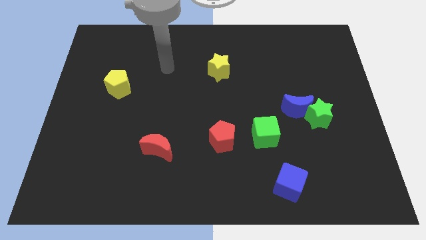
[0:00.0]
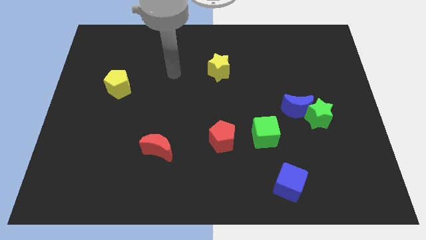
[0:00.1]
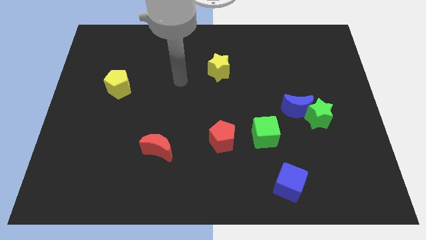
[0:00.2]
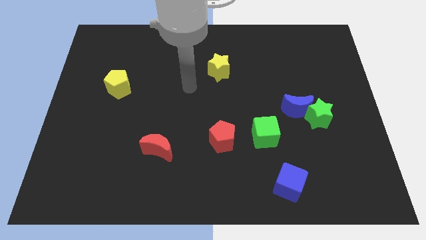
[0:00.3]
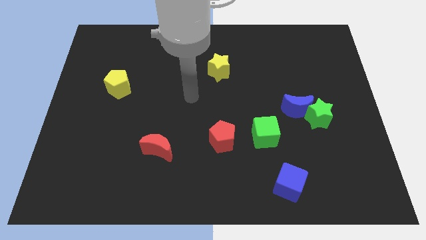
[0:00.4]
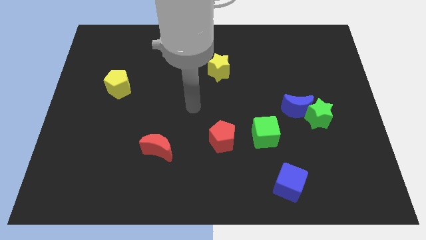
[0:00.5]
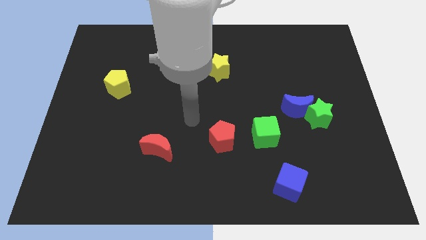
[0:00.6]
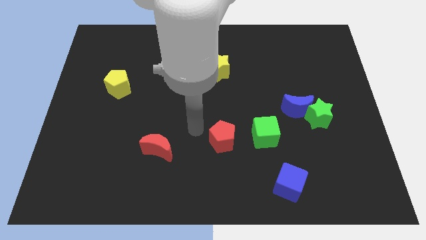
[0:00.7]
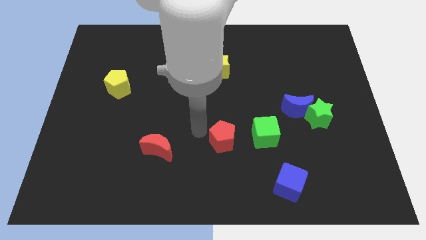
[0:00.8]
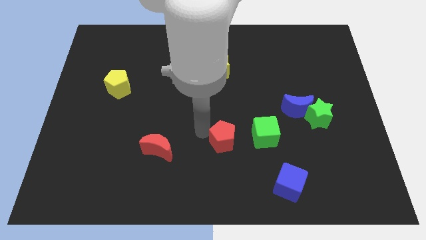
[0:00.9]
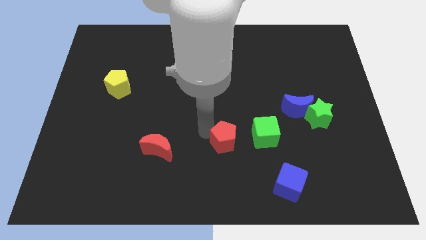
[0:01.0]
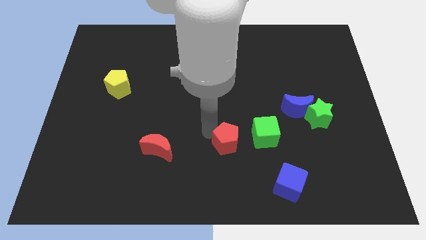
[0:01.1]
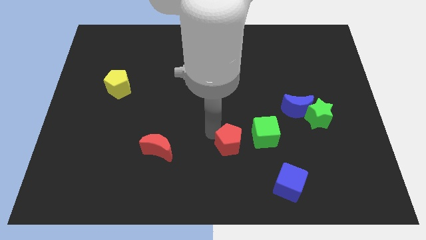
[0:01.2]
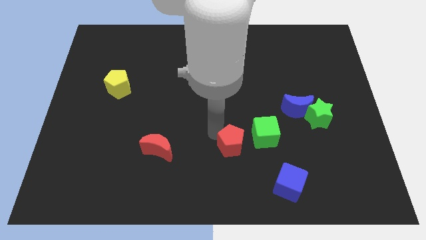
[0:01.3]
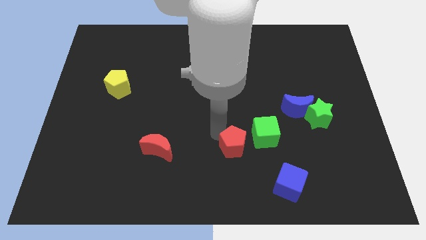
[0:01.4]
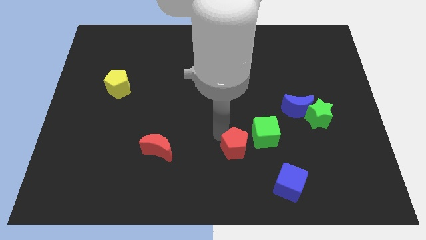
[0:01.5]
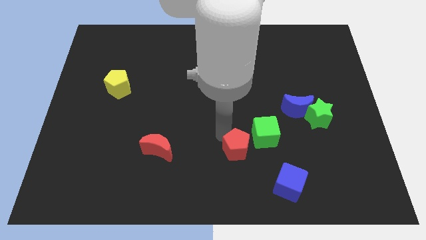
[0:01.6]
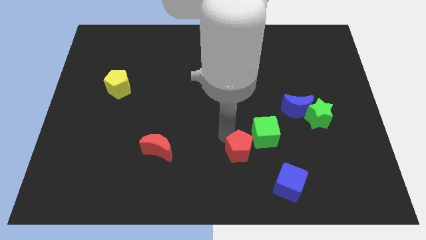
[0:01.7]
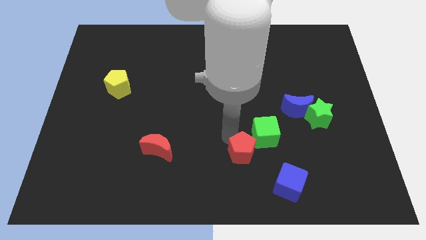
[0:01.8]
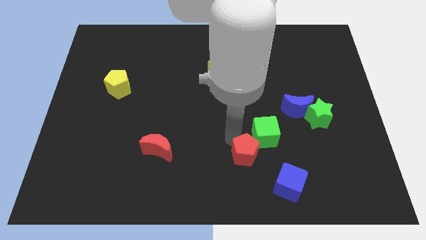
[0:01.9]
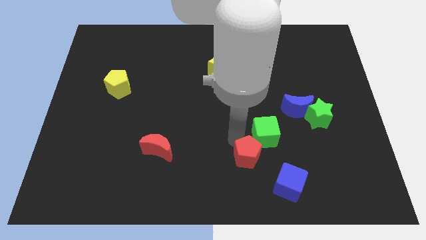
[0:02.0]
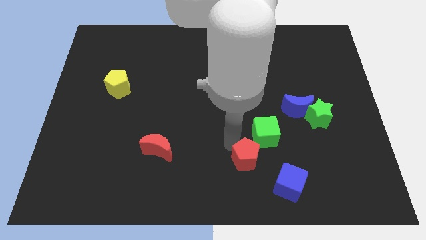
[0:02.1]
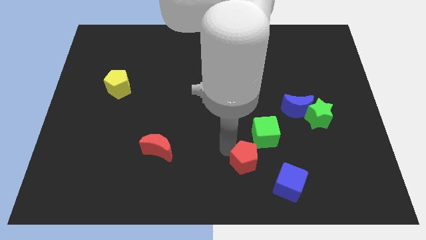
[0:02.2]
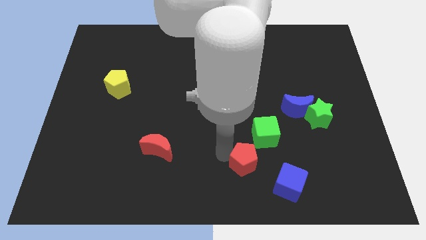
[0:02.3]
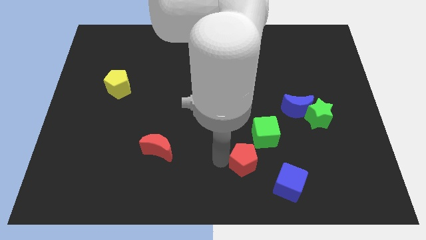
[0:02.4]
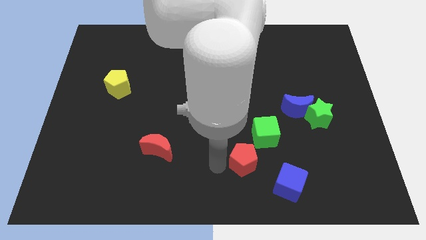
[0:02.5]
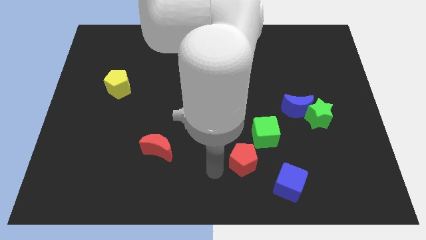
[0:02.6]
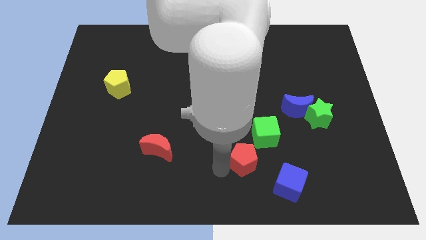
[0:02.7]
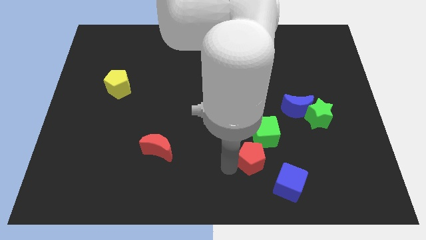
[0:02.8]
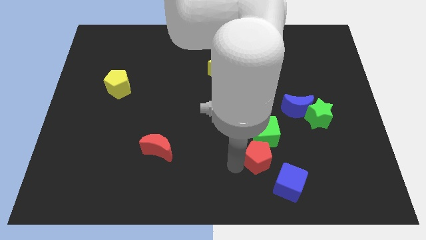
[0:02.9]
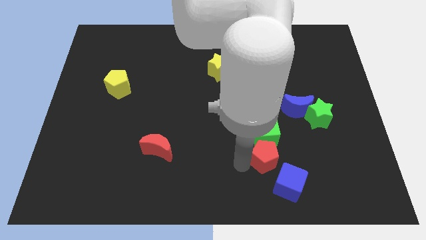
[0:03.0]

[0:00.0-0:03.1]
slightly push the red pentagon right

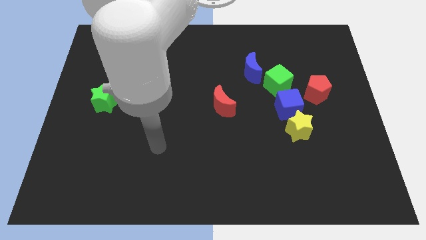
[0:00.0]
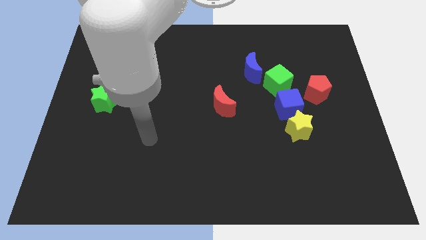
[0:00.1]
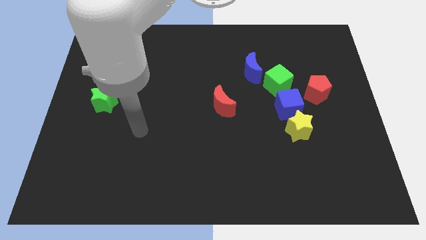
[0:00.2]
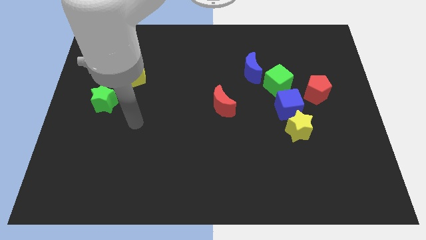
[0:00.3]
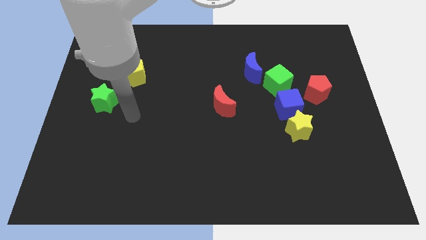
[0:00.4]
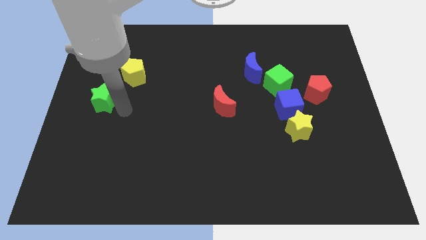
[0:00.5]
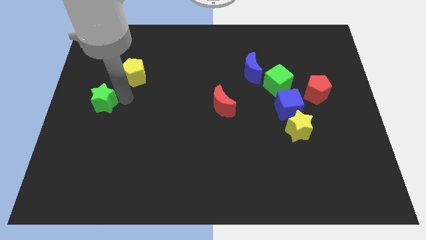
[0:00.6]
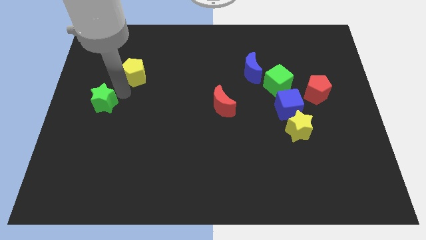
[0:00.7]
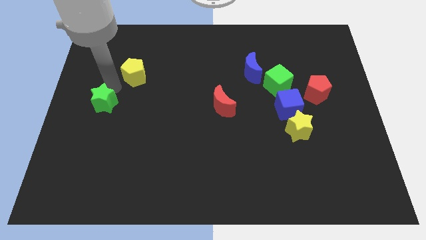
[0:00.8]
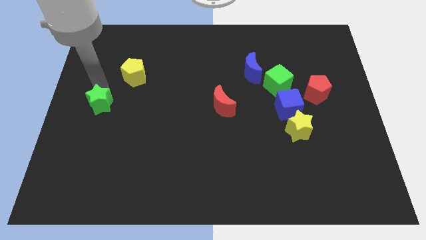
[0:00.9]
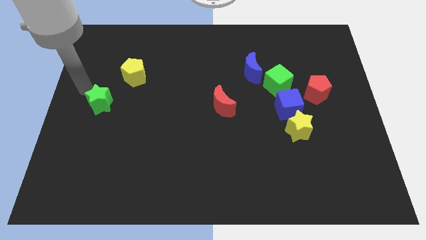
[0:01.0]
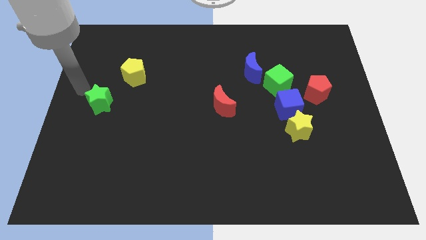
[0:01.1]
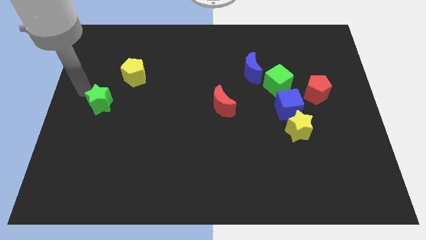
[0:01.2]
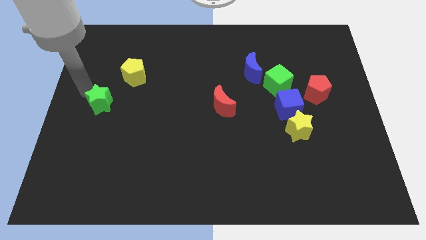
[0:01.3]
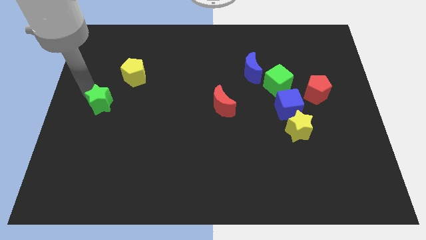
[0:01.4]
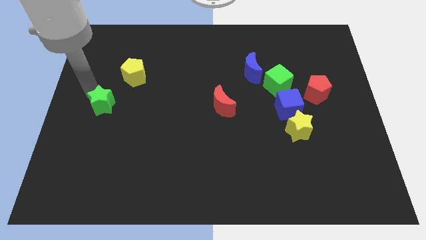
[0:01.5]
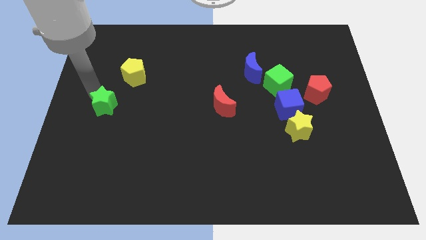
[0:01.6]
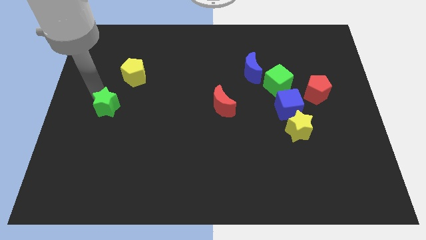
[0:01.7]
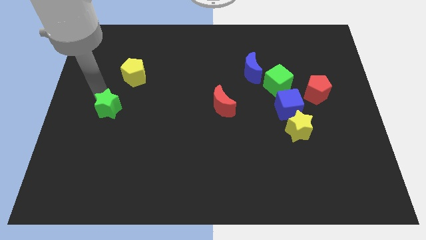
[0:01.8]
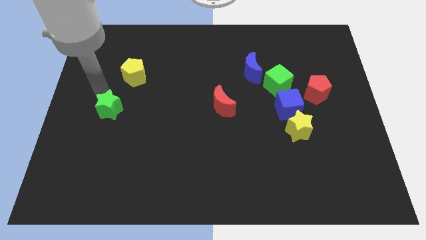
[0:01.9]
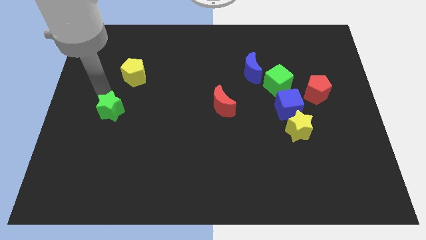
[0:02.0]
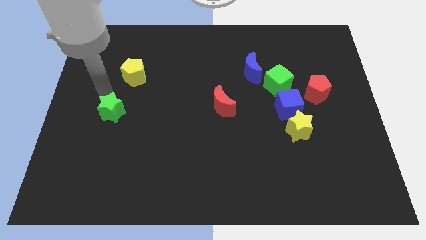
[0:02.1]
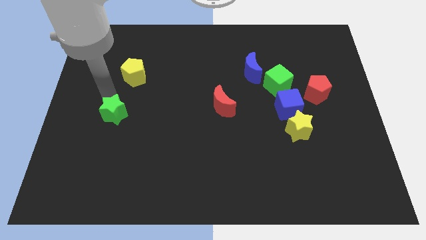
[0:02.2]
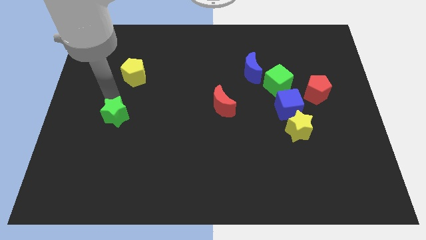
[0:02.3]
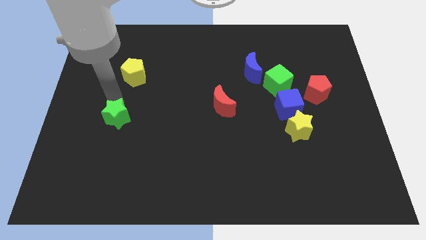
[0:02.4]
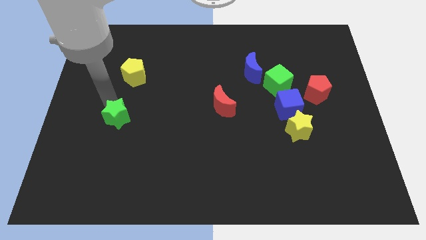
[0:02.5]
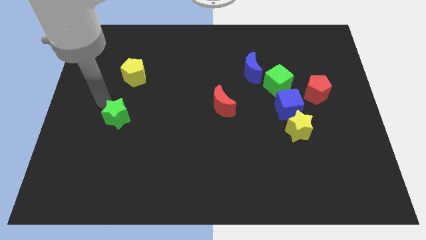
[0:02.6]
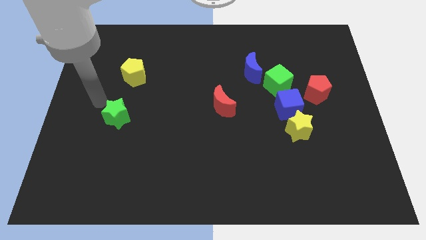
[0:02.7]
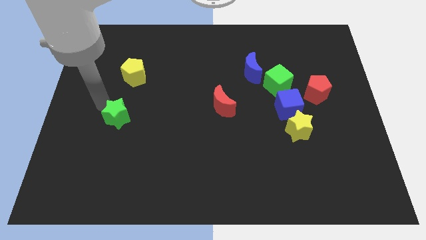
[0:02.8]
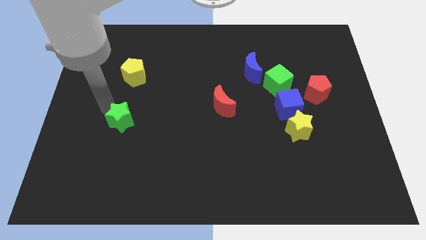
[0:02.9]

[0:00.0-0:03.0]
slide the green star down and to the right a little

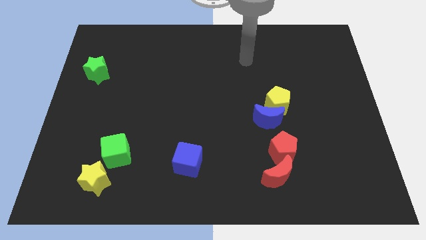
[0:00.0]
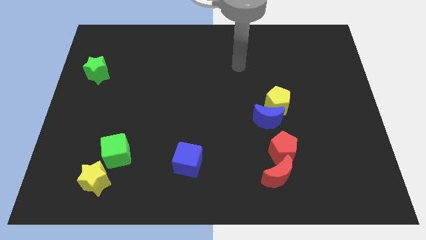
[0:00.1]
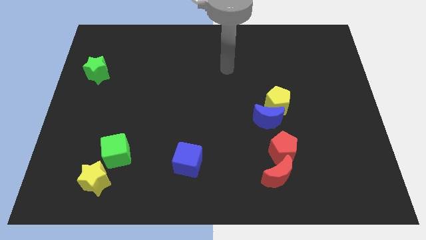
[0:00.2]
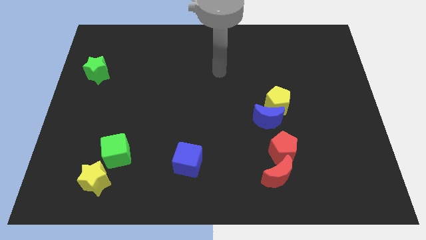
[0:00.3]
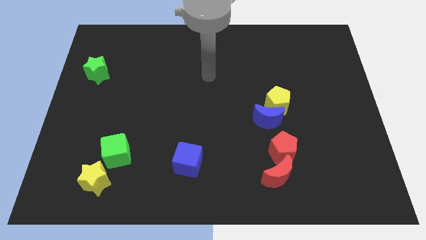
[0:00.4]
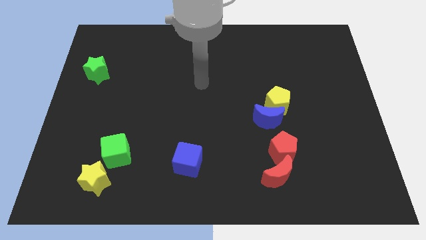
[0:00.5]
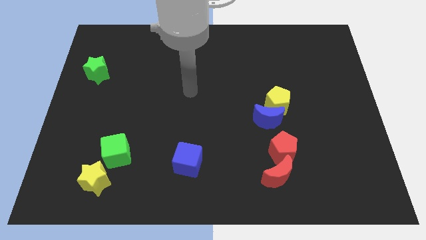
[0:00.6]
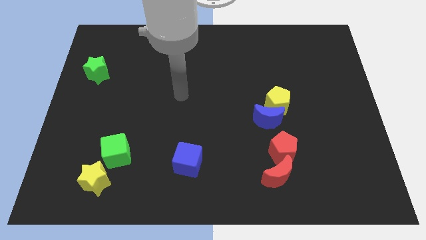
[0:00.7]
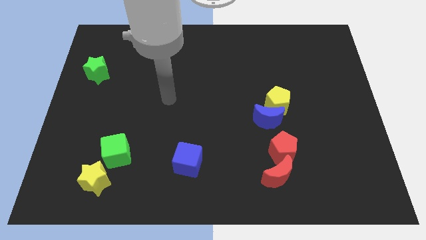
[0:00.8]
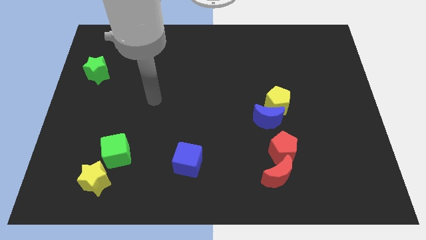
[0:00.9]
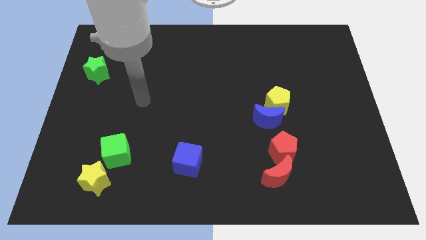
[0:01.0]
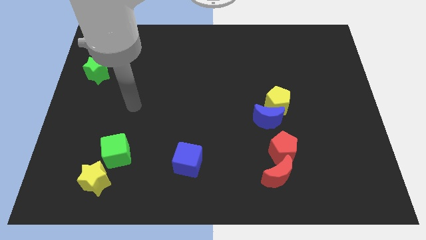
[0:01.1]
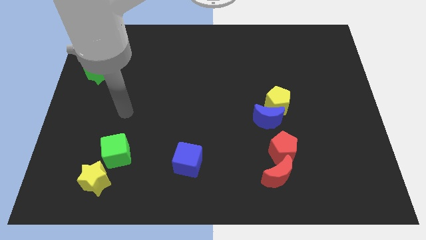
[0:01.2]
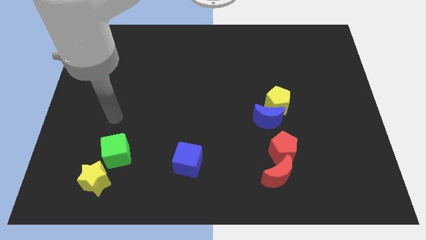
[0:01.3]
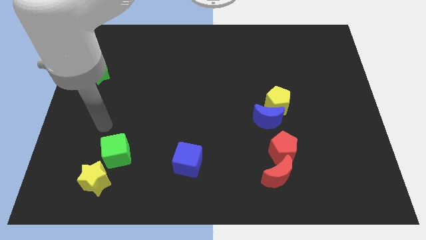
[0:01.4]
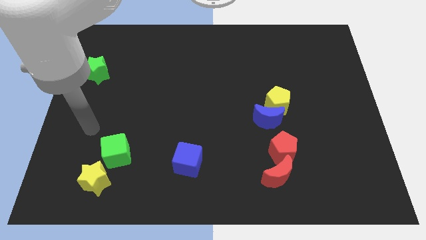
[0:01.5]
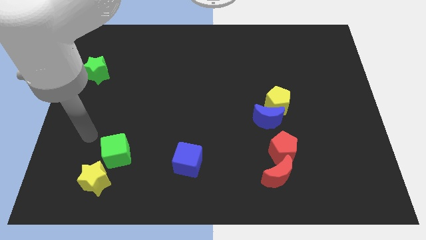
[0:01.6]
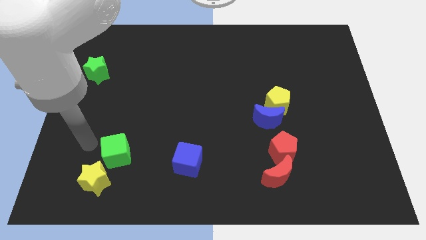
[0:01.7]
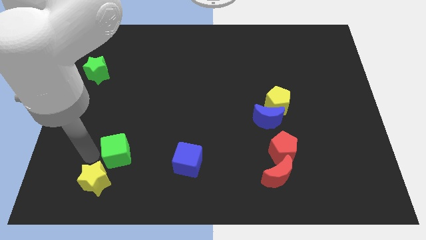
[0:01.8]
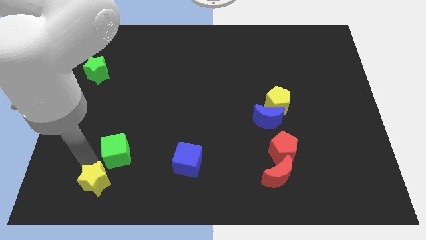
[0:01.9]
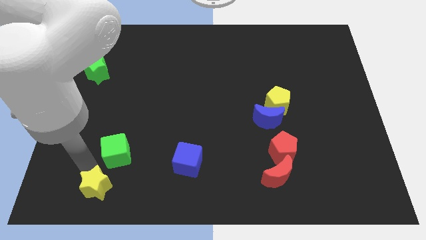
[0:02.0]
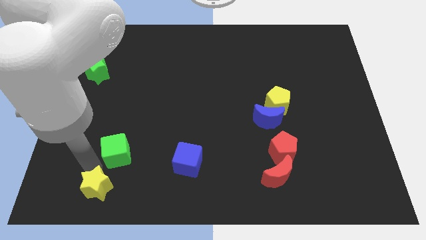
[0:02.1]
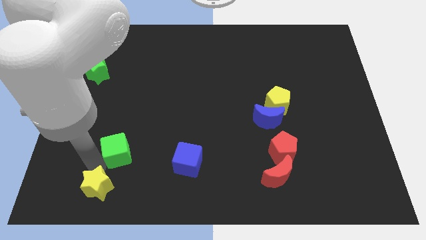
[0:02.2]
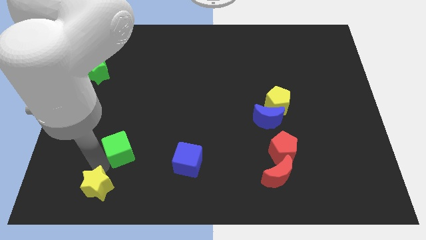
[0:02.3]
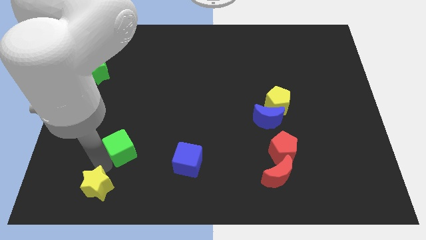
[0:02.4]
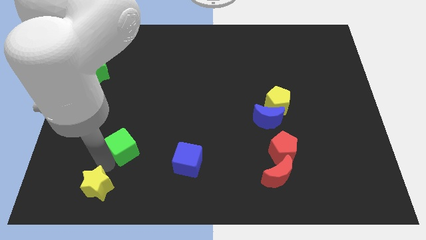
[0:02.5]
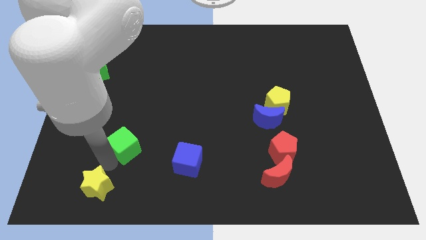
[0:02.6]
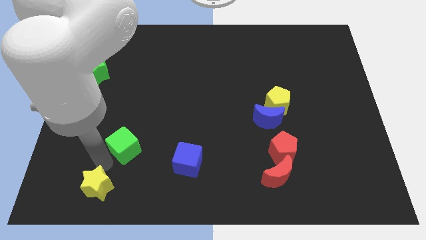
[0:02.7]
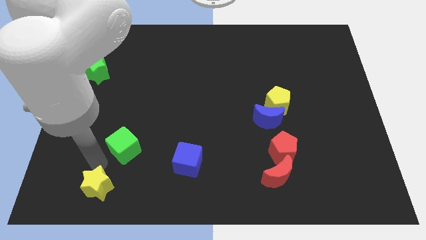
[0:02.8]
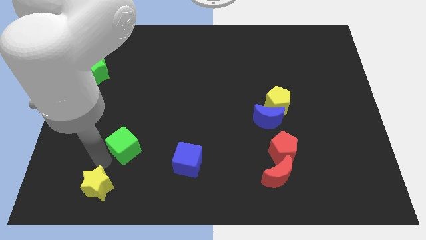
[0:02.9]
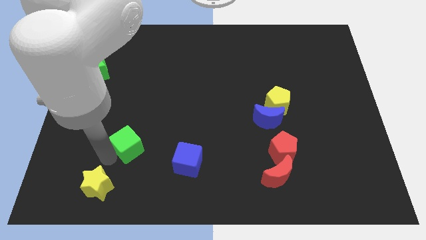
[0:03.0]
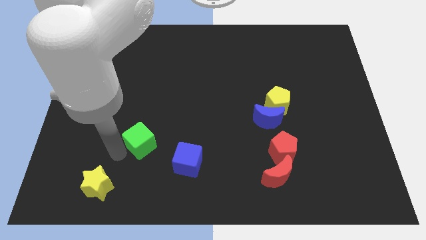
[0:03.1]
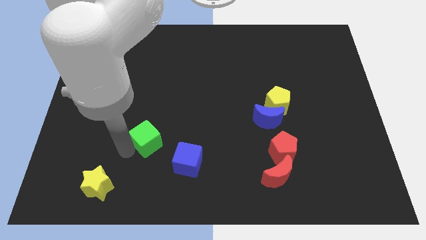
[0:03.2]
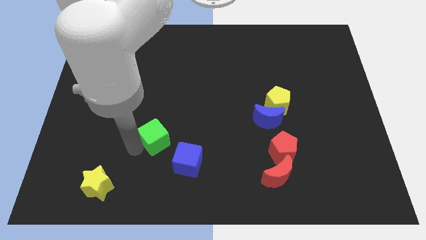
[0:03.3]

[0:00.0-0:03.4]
slightly move the green cube upwards and then right
